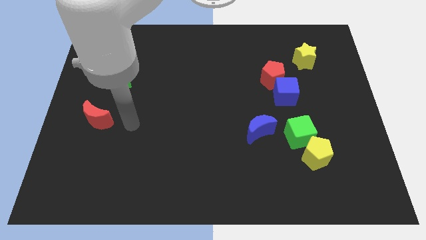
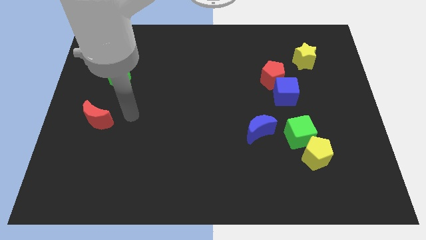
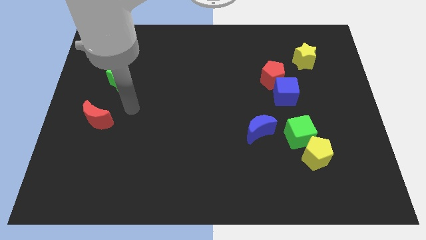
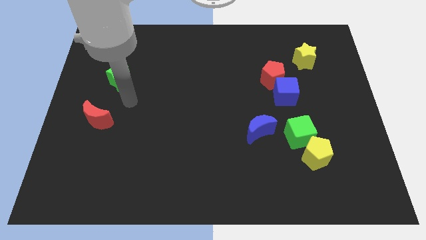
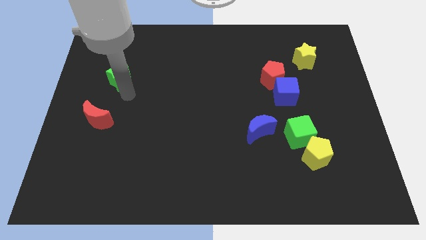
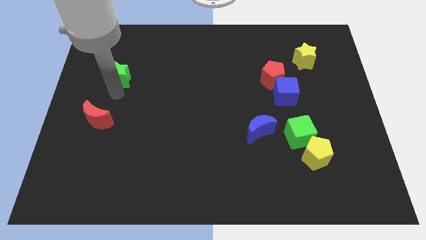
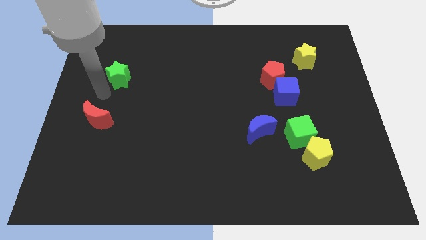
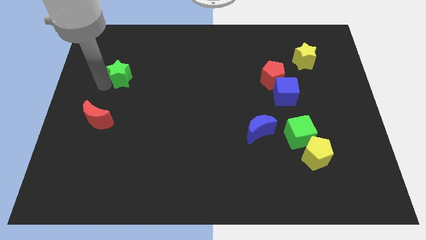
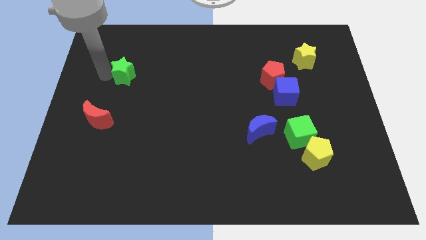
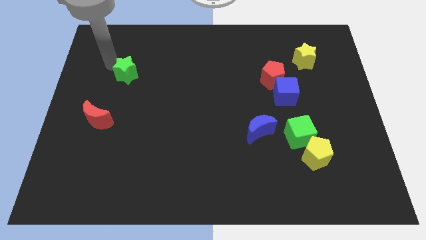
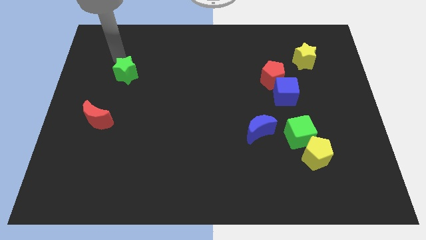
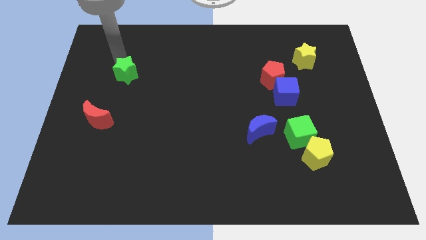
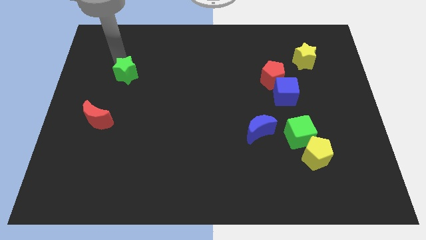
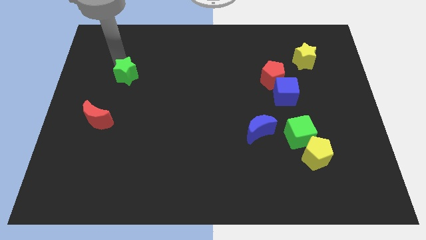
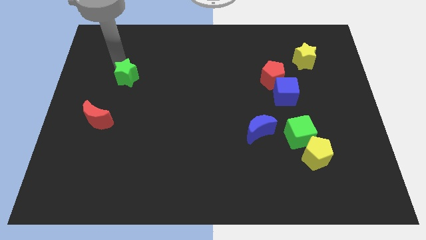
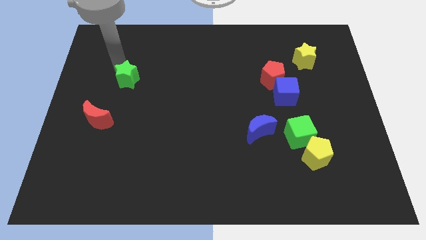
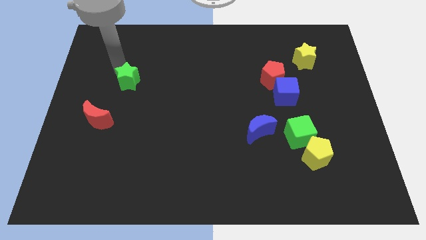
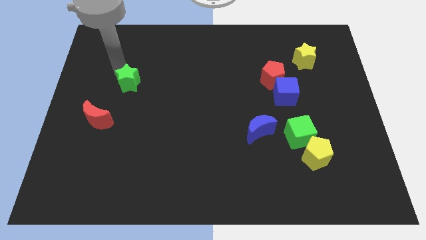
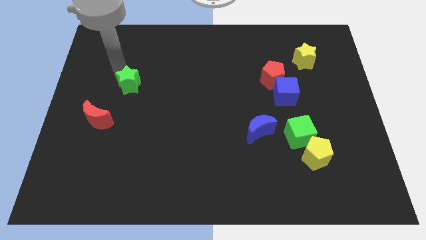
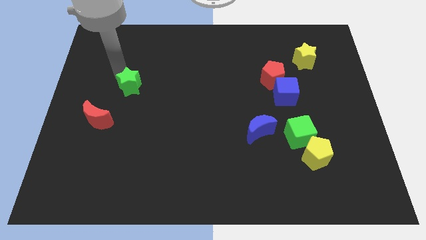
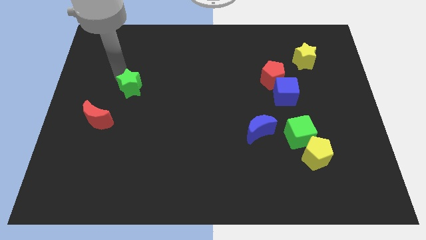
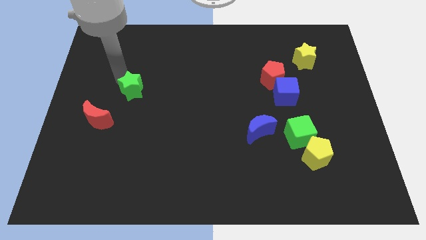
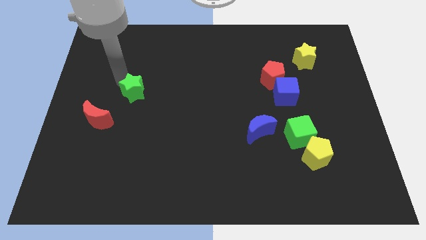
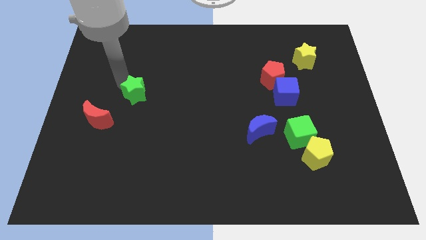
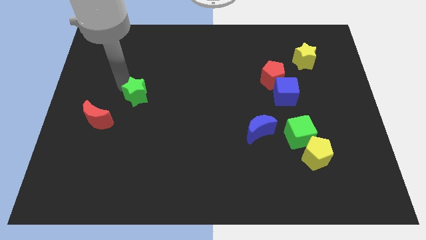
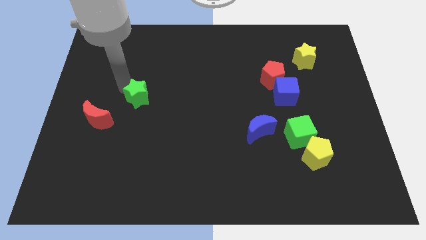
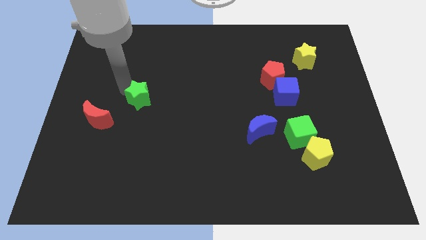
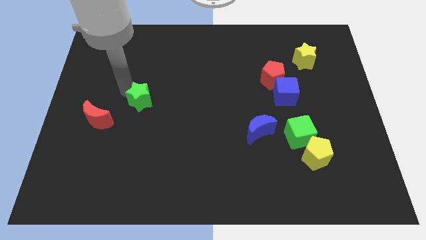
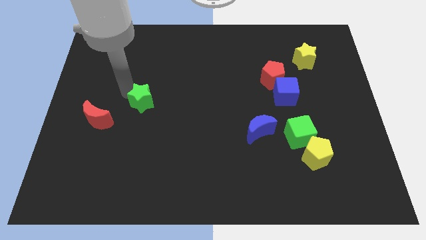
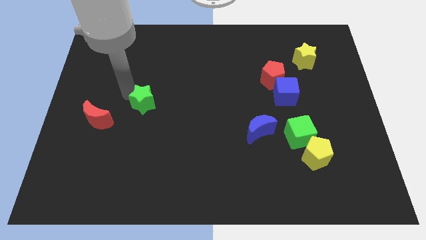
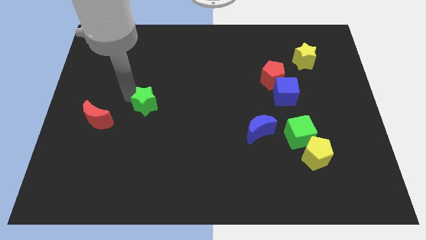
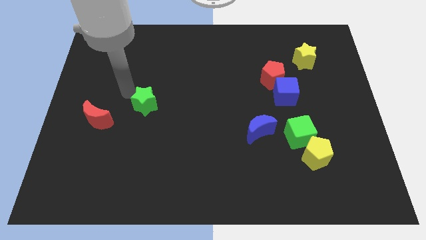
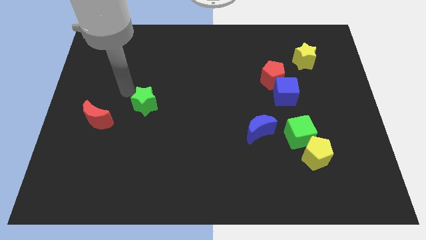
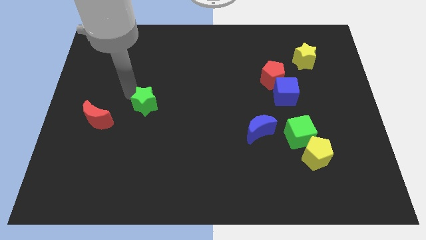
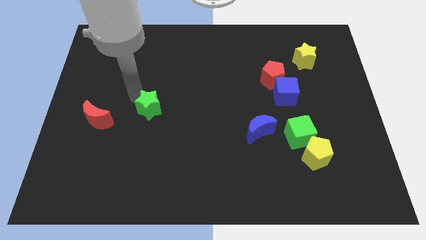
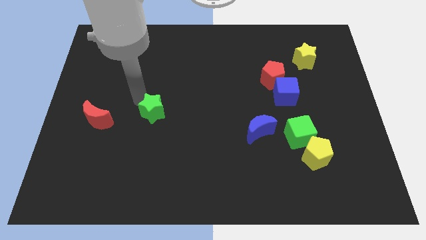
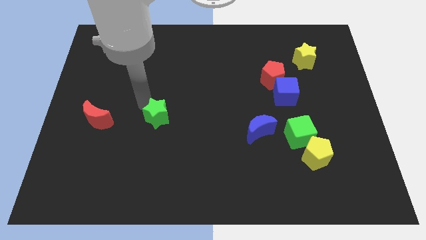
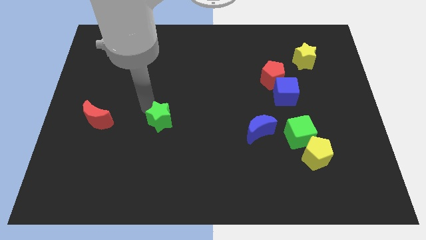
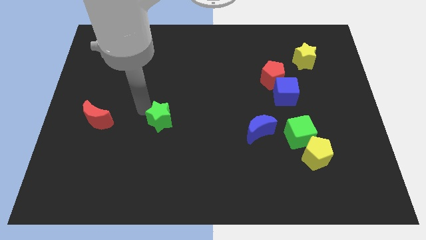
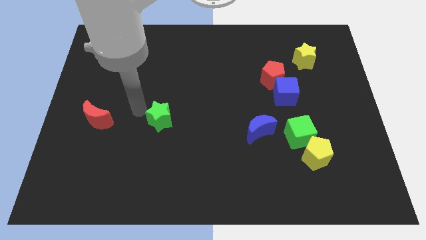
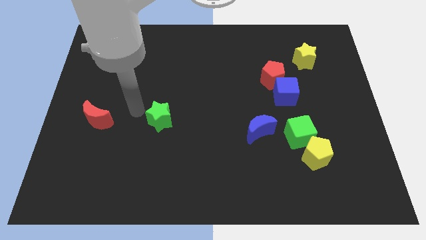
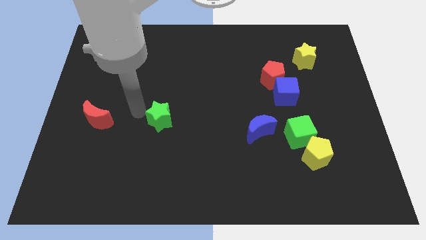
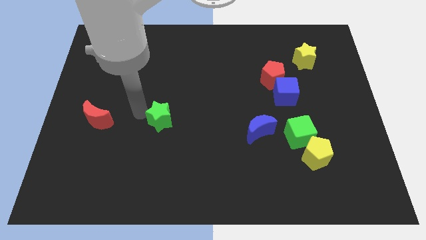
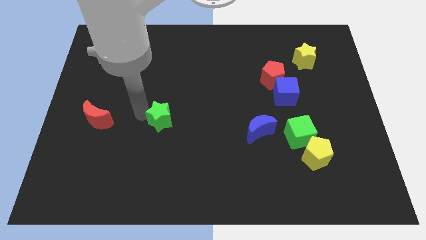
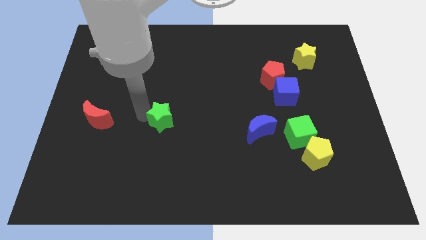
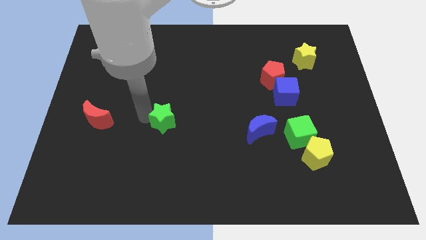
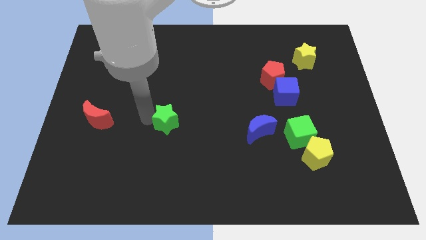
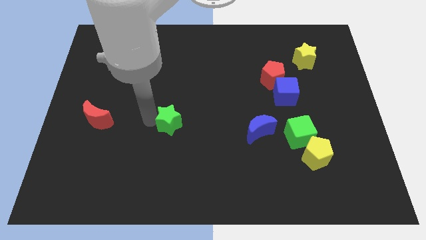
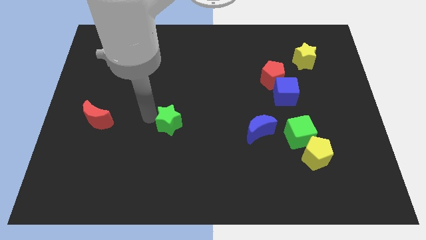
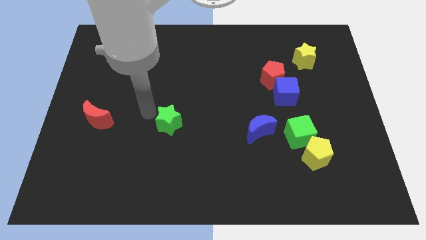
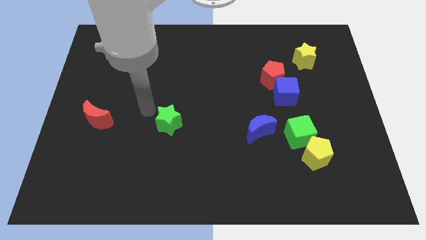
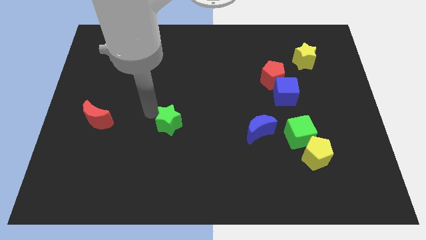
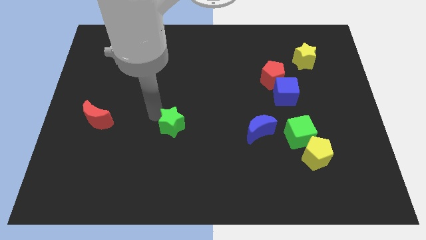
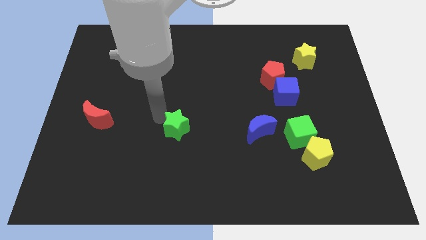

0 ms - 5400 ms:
push the green star downwards and to the right diagonally

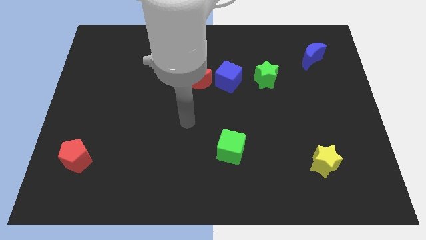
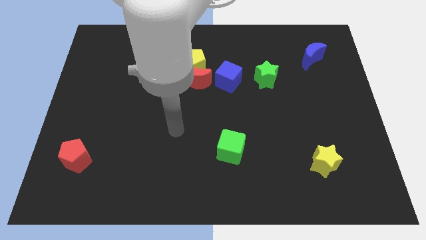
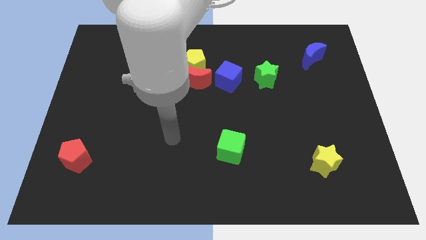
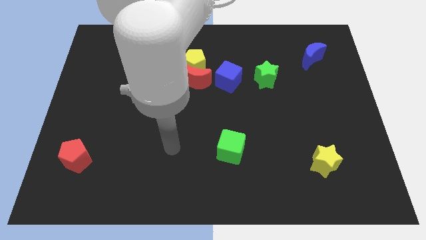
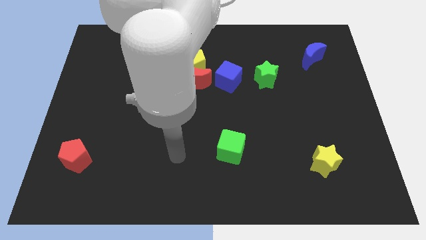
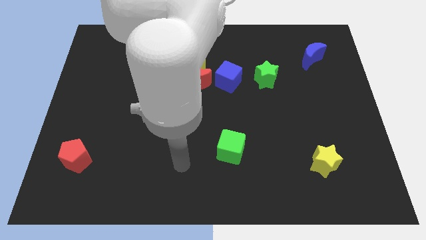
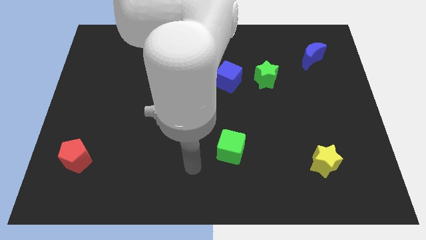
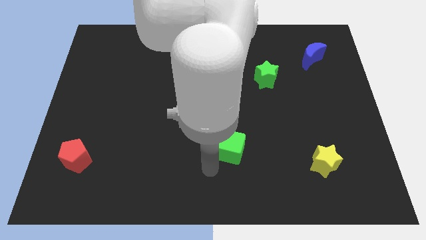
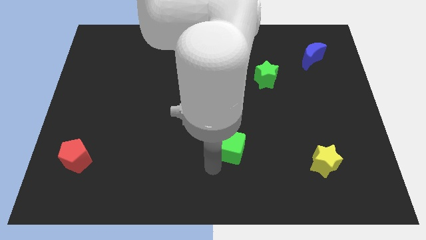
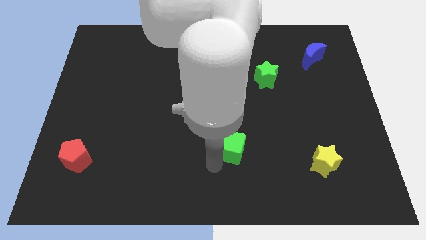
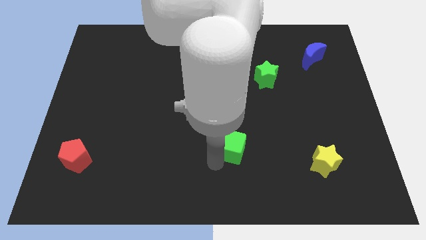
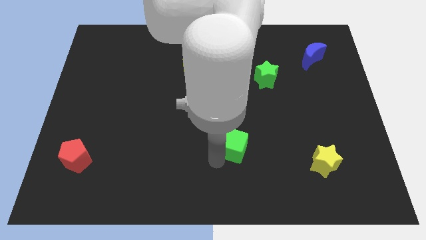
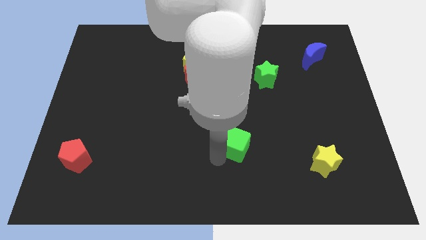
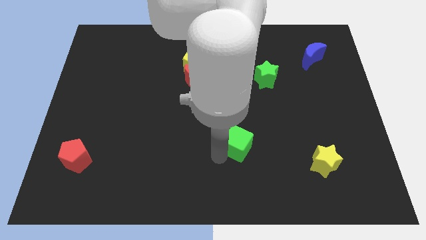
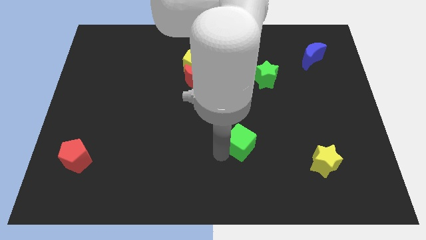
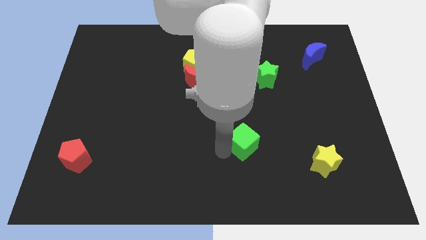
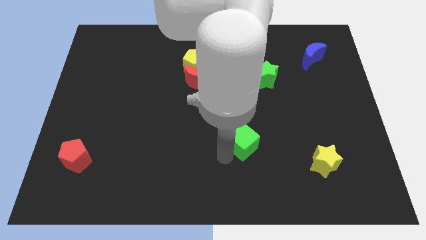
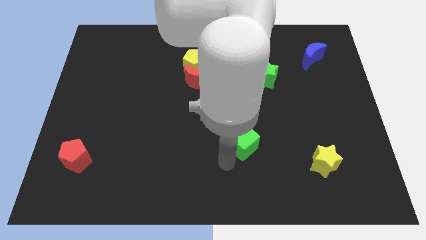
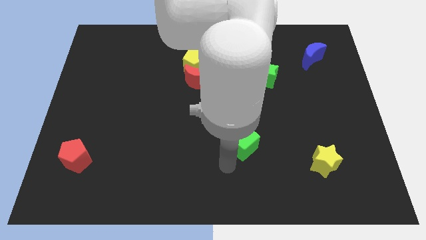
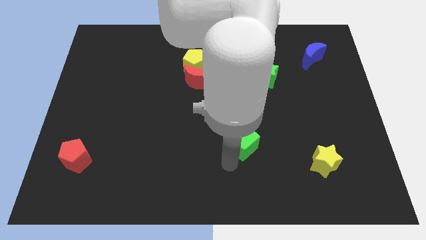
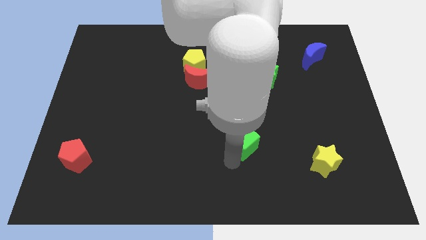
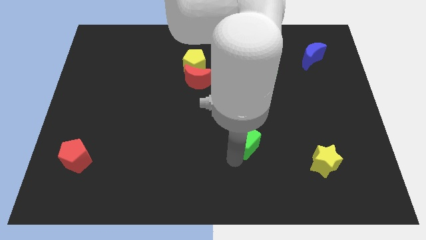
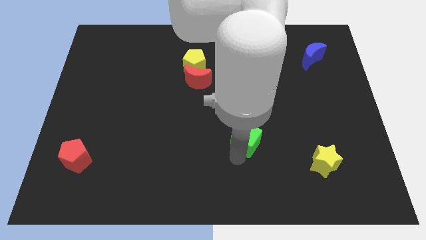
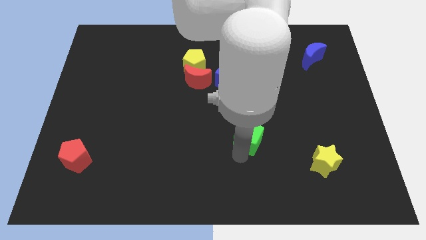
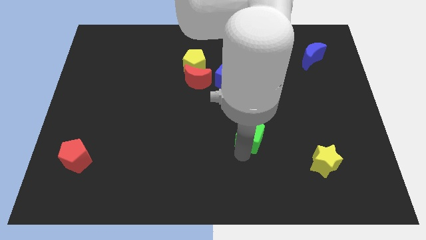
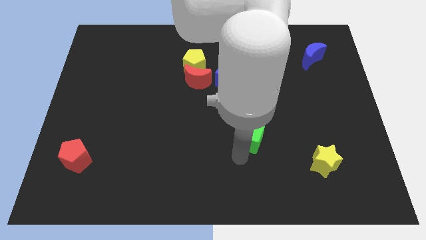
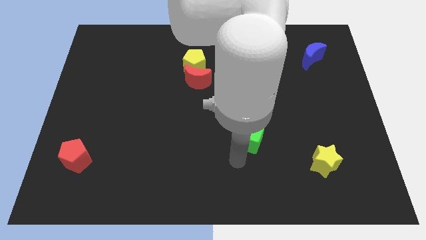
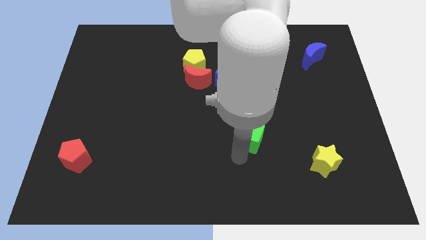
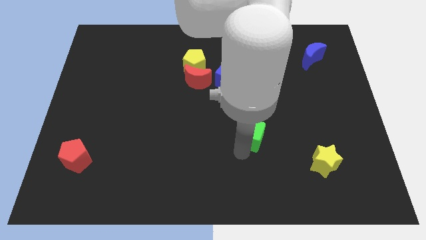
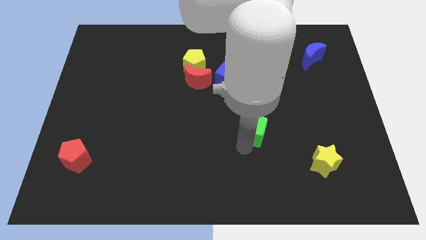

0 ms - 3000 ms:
slightly move the green cube upwards and right diagonally
